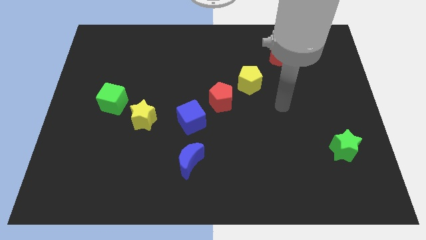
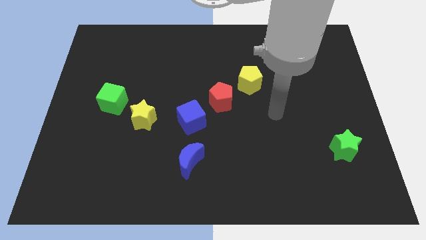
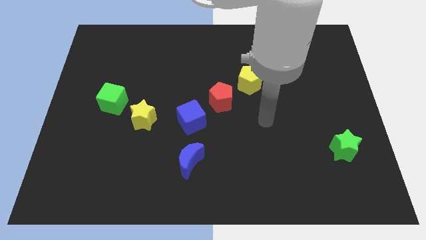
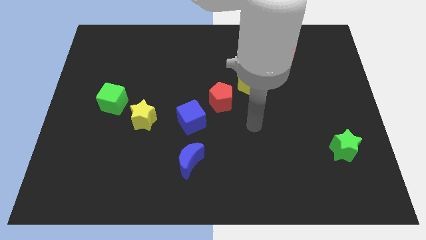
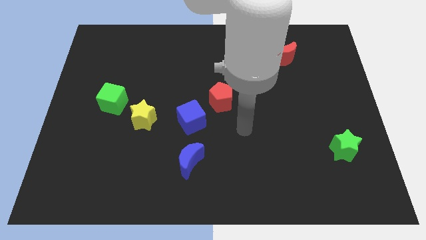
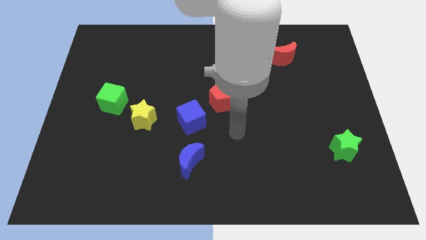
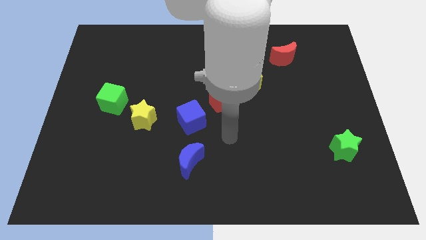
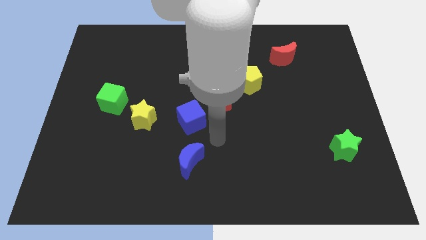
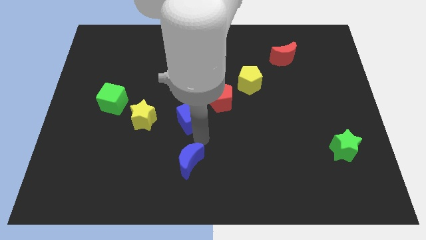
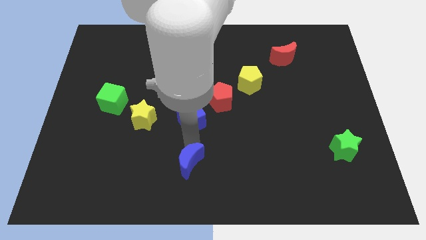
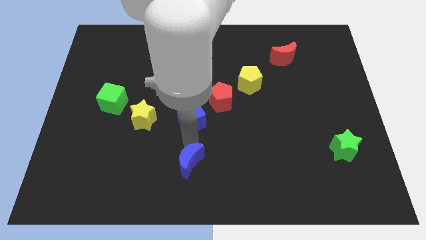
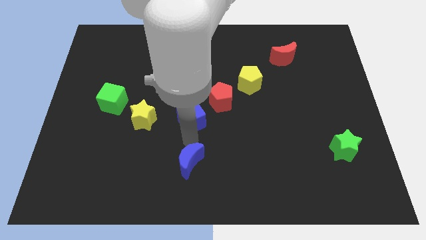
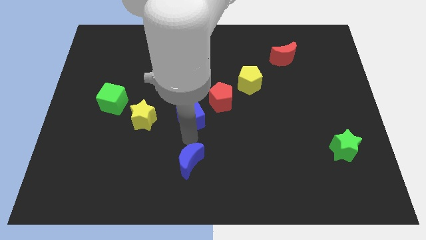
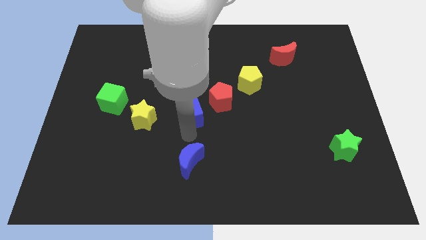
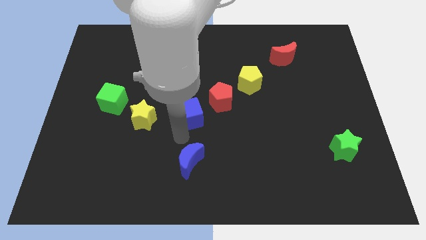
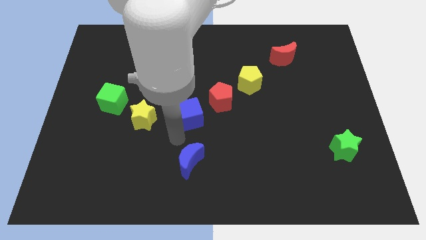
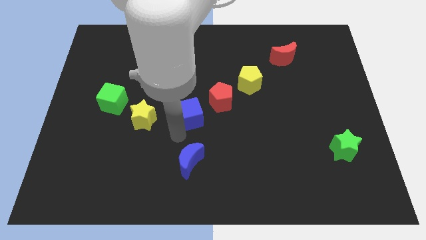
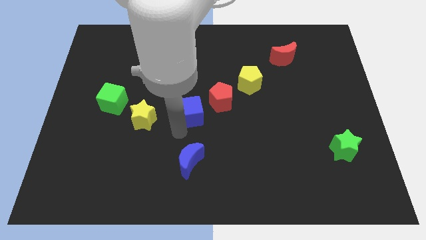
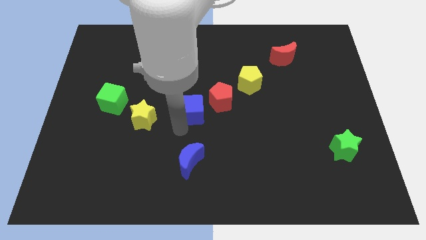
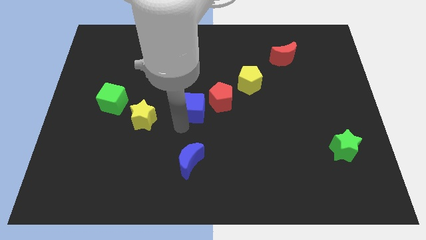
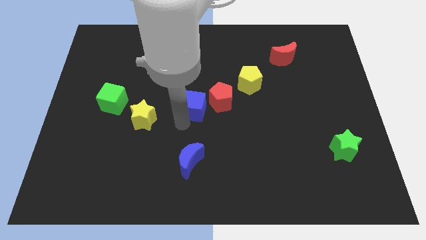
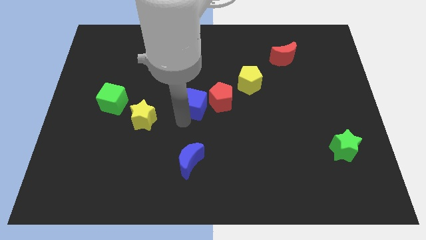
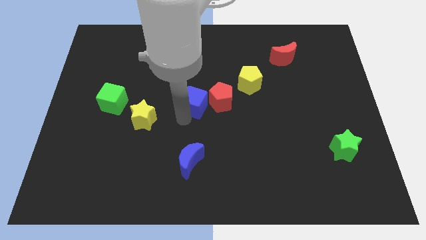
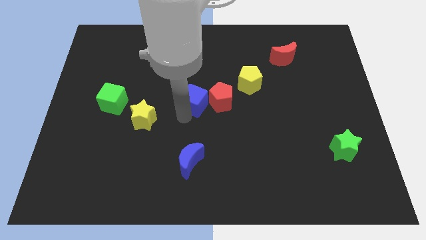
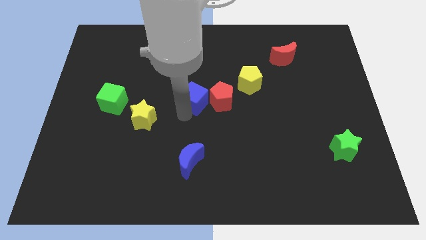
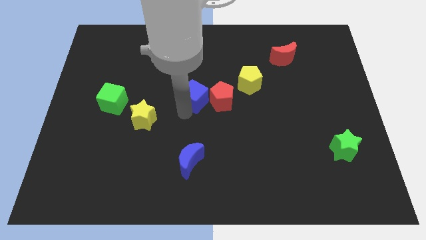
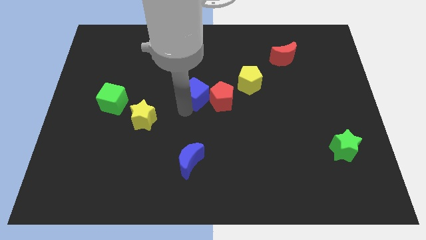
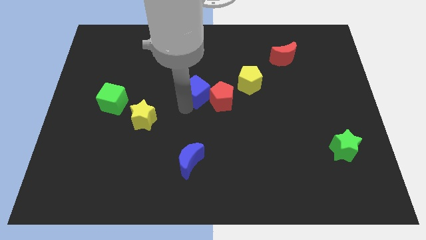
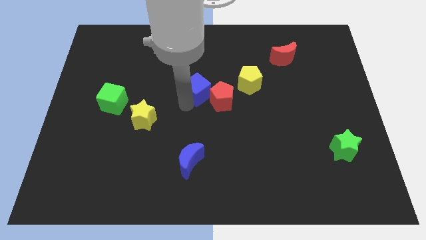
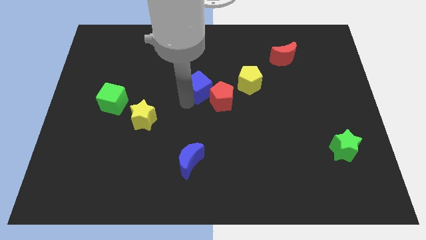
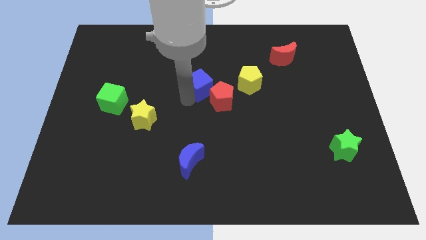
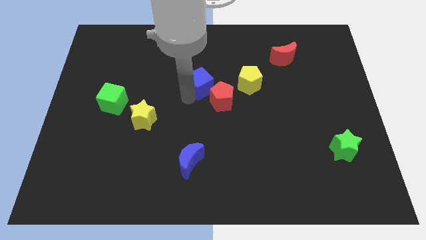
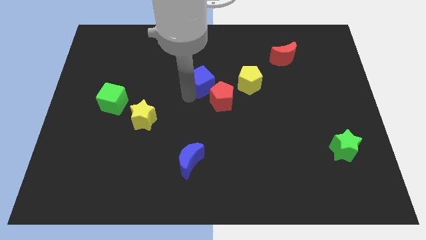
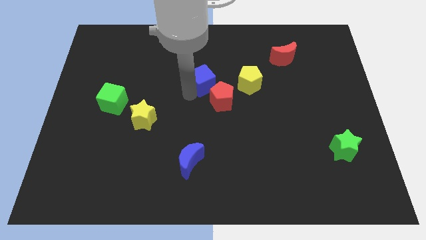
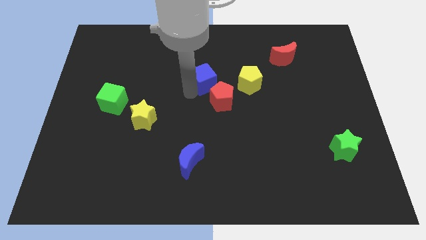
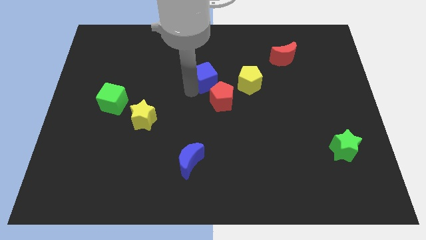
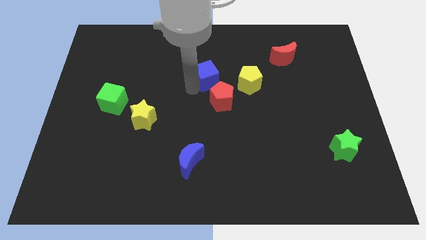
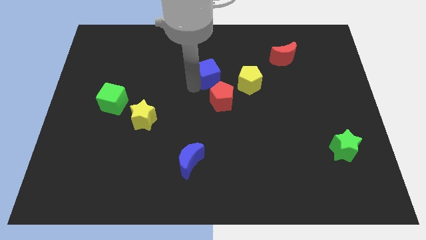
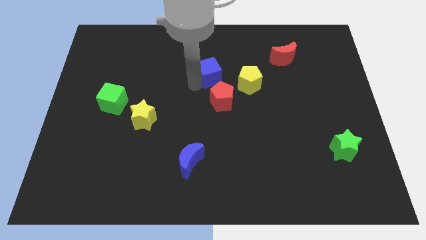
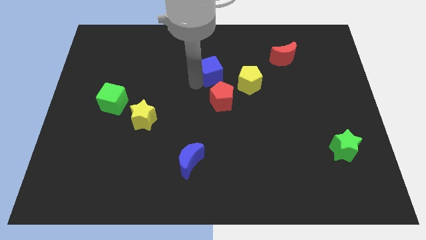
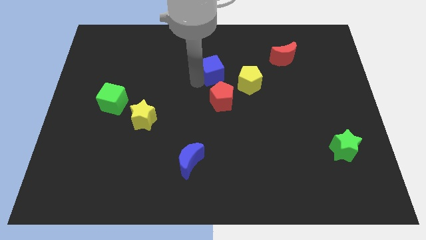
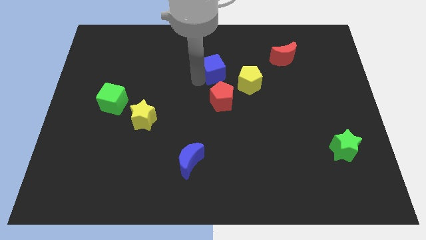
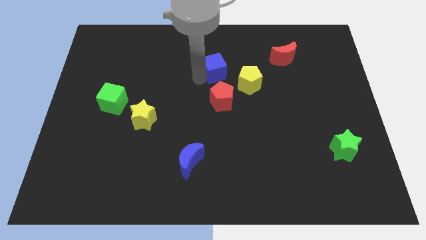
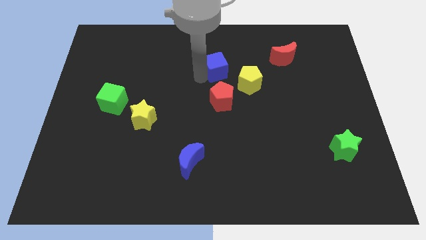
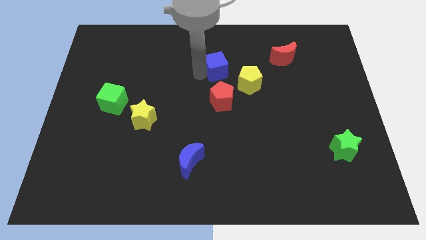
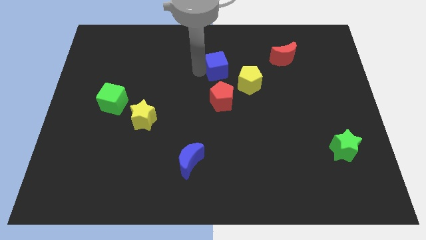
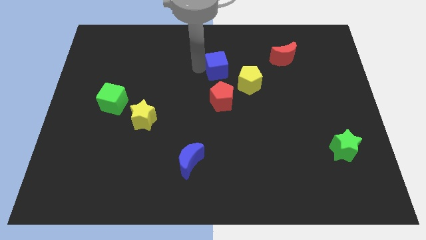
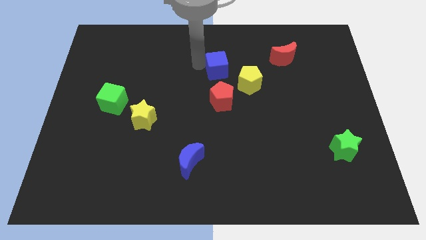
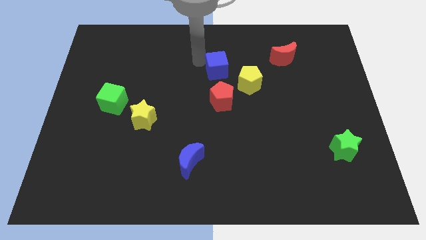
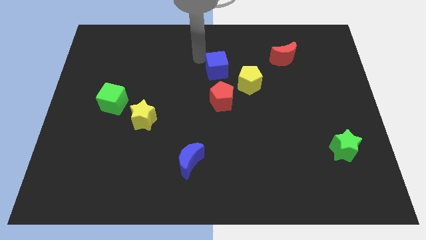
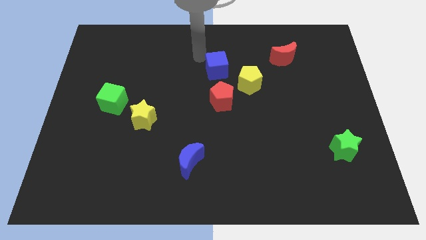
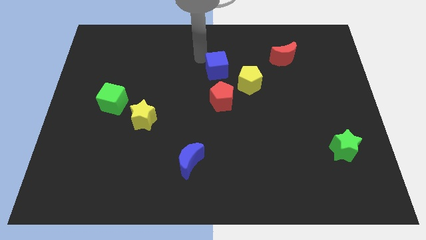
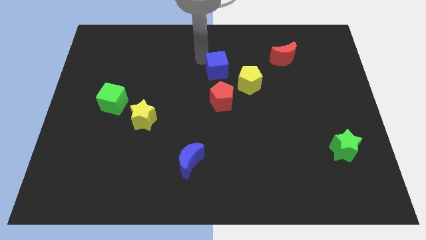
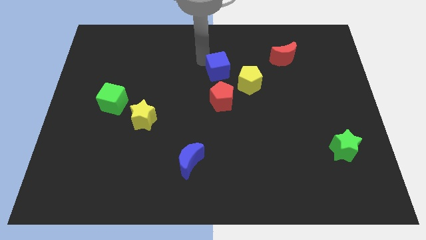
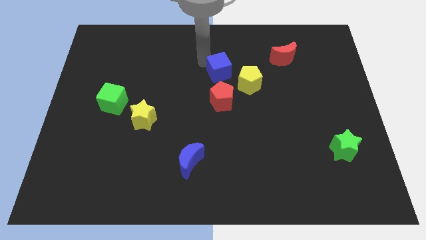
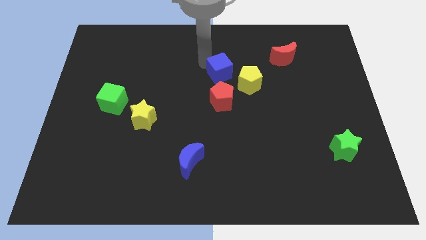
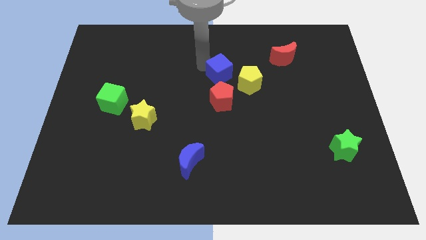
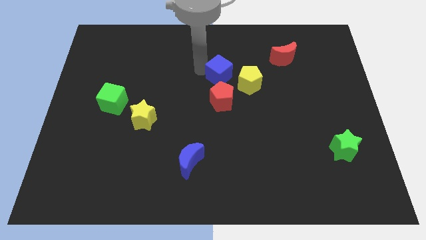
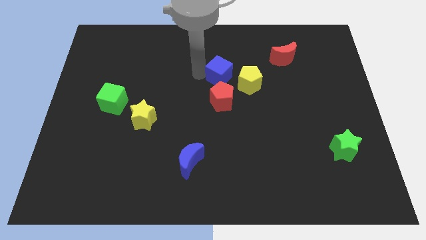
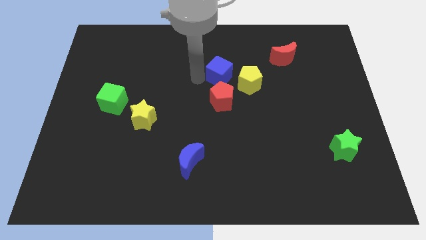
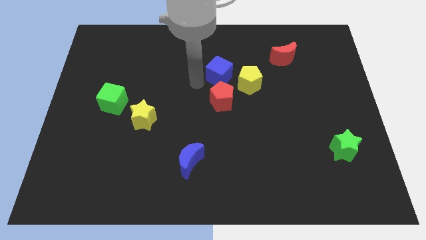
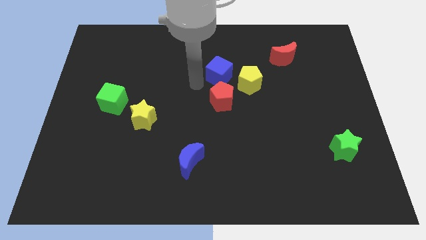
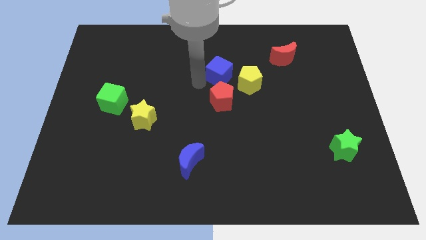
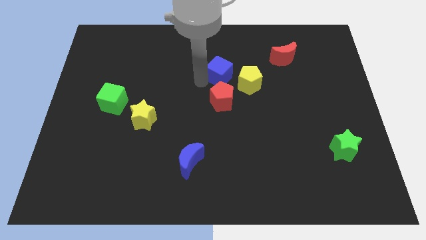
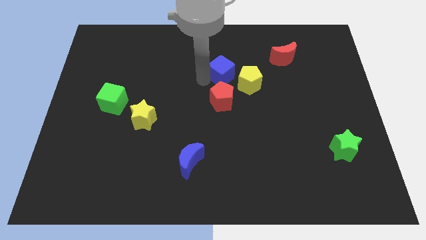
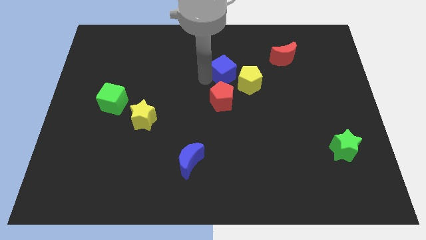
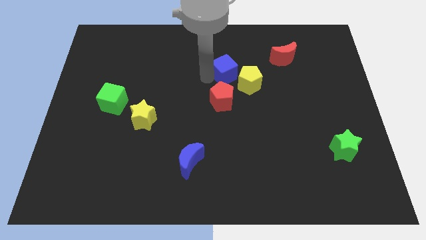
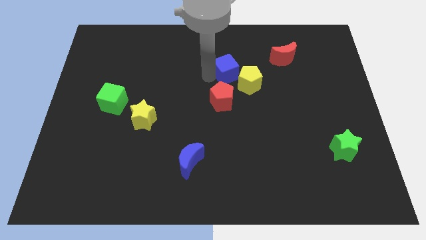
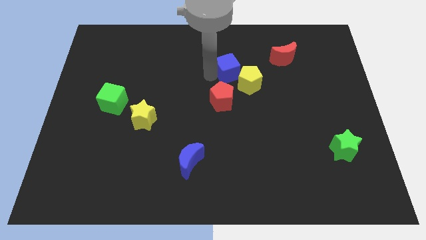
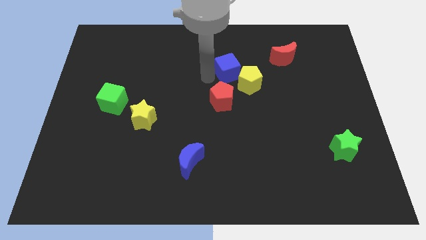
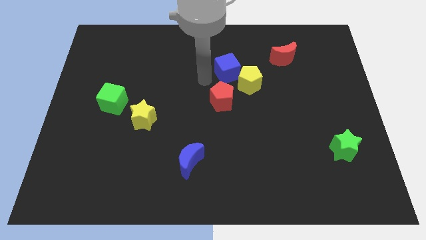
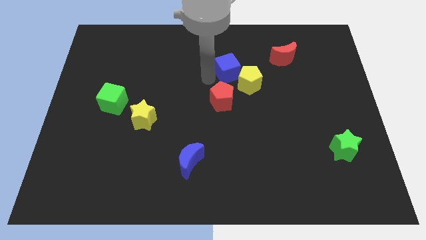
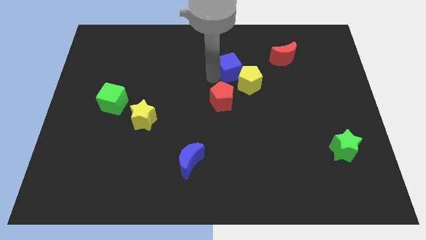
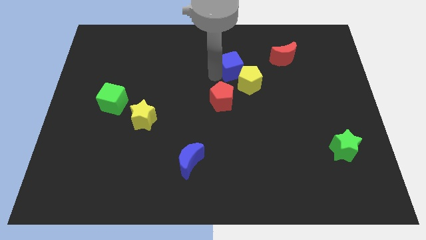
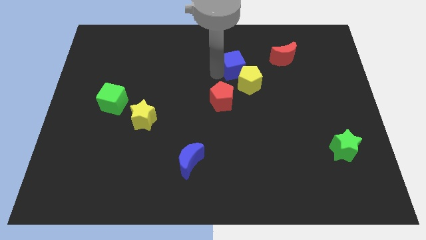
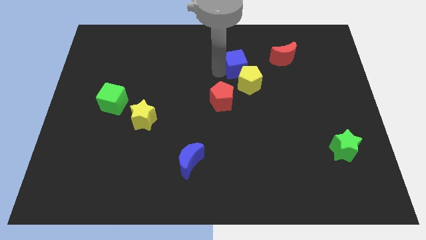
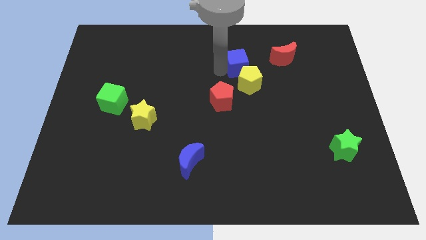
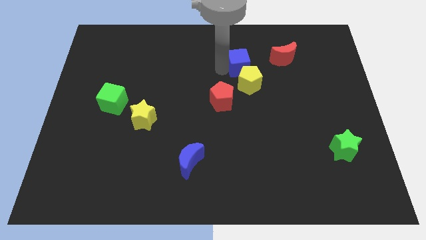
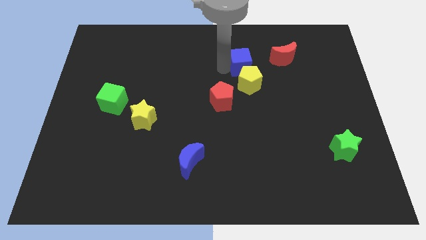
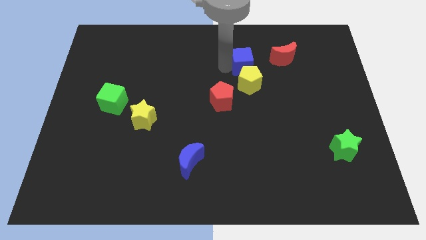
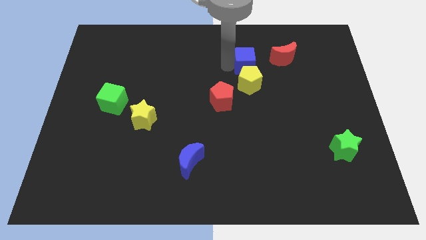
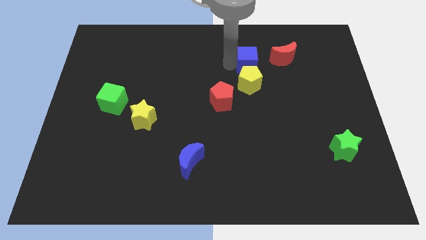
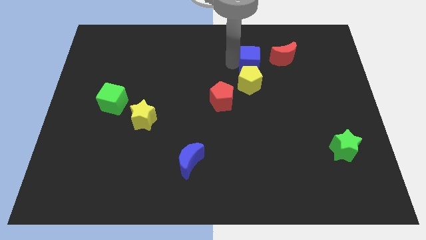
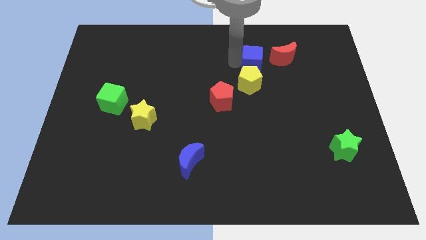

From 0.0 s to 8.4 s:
move the blue cube to the bottom left side of the red moon
